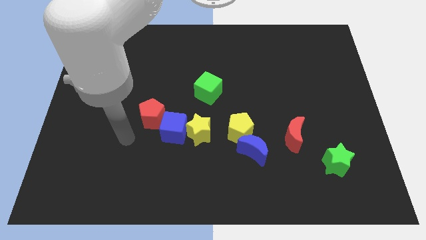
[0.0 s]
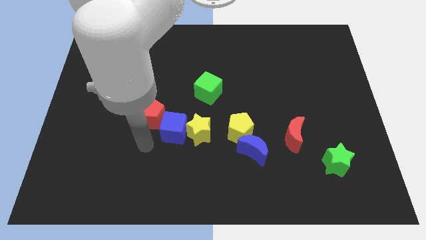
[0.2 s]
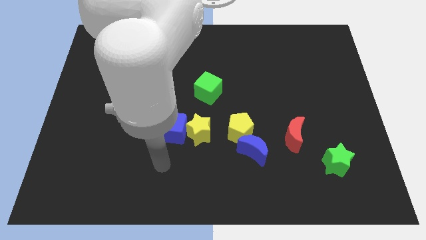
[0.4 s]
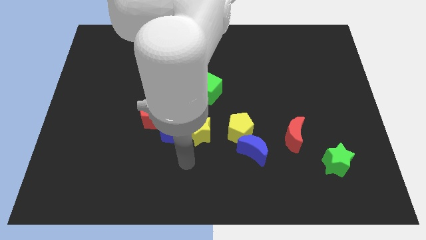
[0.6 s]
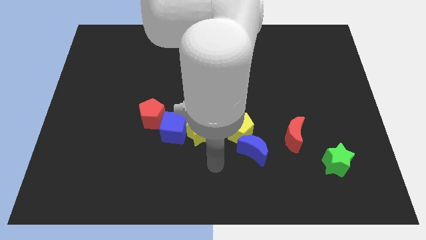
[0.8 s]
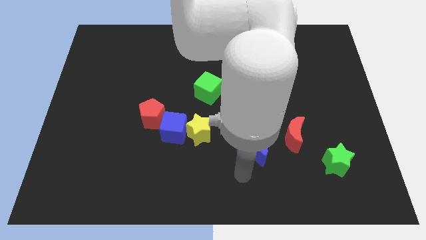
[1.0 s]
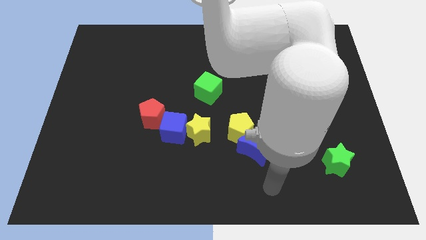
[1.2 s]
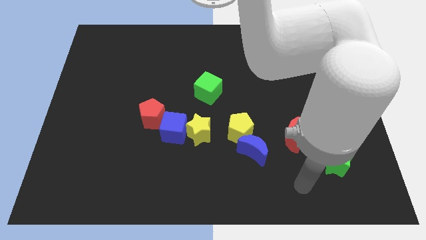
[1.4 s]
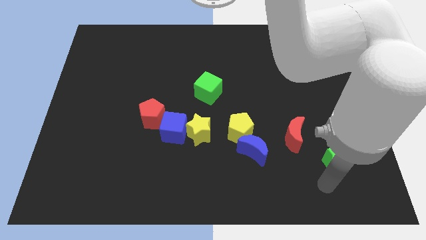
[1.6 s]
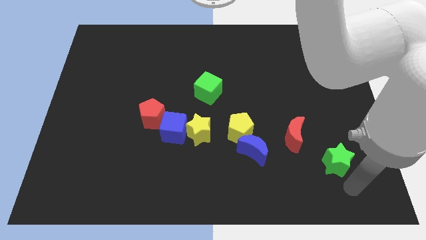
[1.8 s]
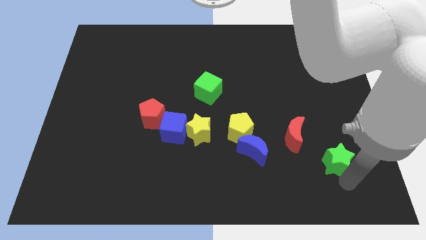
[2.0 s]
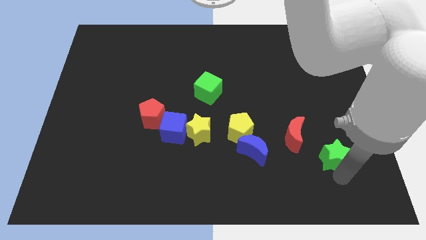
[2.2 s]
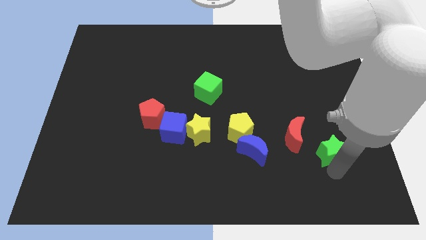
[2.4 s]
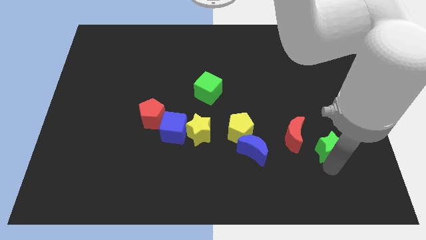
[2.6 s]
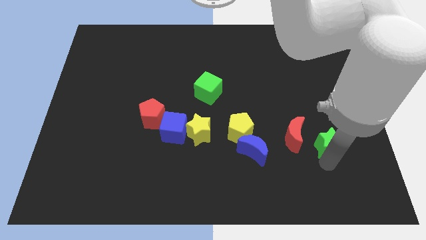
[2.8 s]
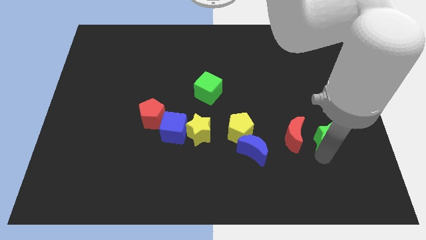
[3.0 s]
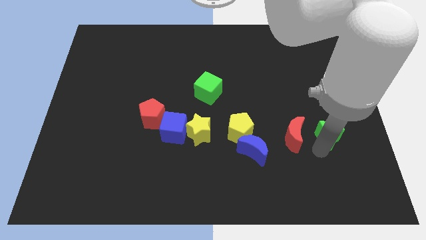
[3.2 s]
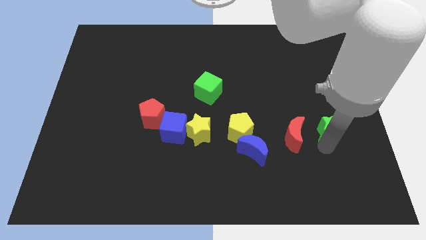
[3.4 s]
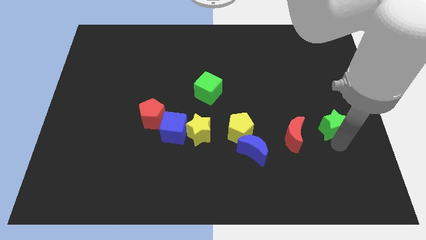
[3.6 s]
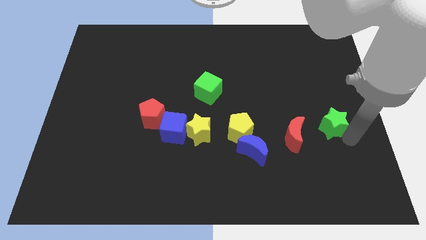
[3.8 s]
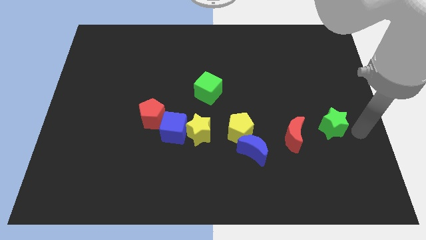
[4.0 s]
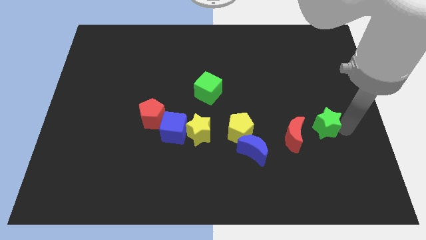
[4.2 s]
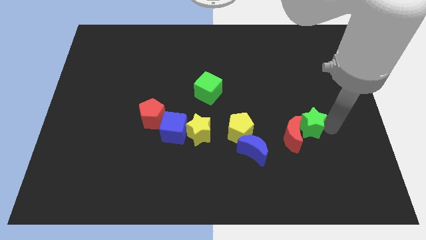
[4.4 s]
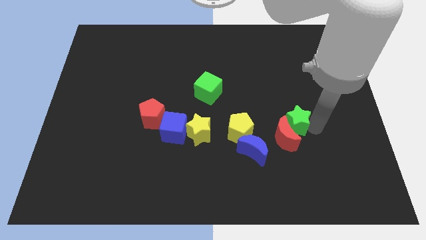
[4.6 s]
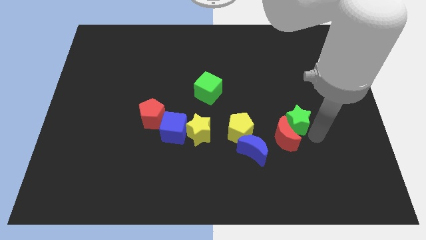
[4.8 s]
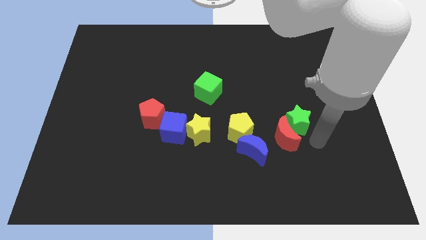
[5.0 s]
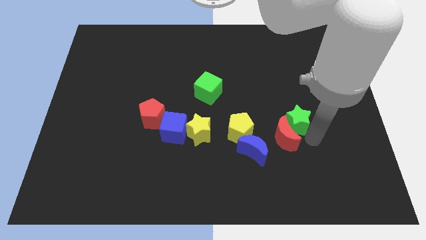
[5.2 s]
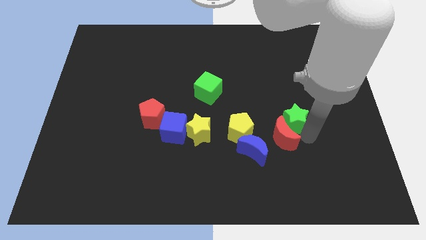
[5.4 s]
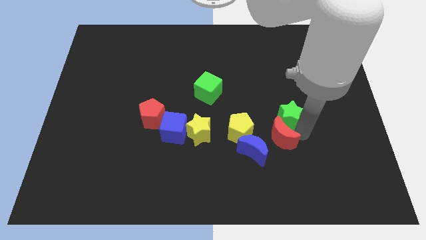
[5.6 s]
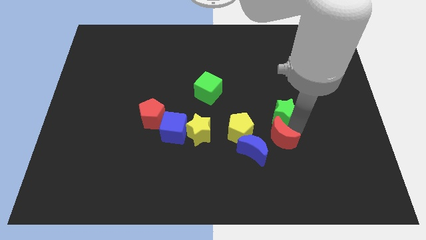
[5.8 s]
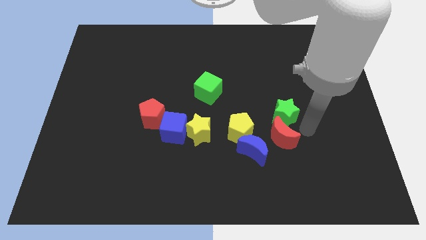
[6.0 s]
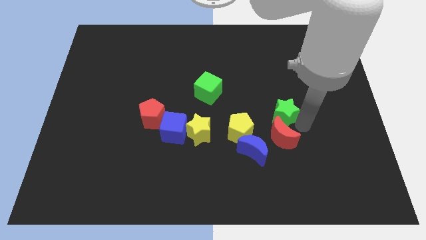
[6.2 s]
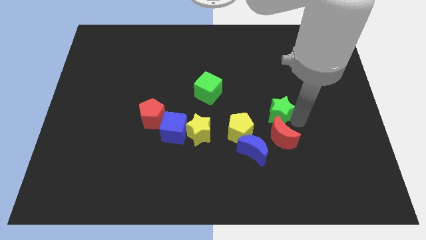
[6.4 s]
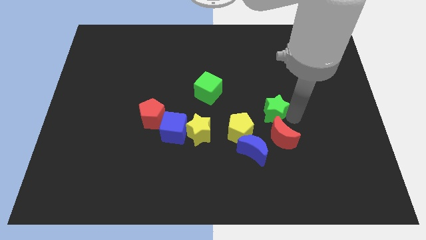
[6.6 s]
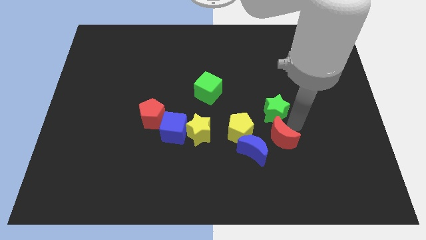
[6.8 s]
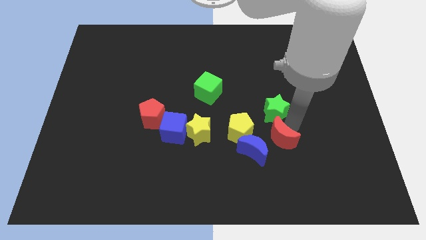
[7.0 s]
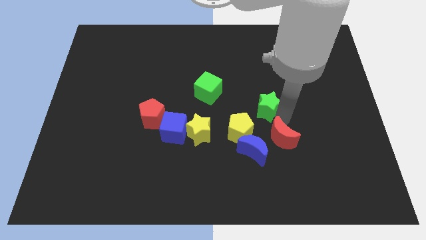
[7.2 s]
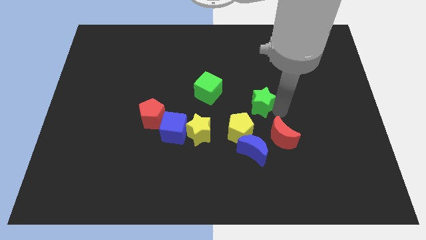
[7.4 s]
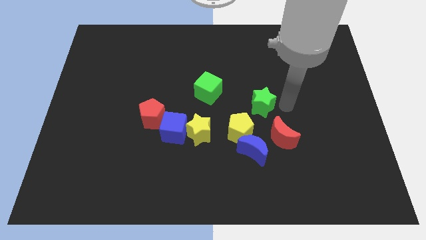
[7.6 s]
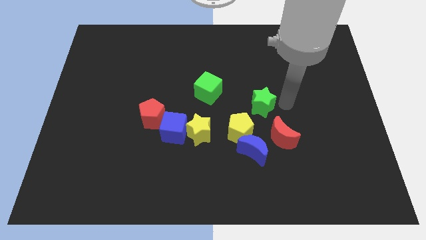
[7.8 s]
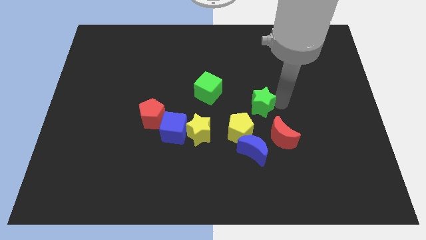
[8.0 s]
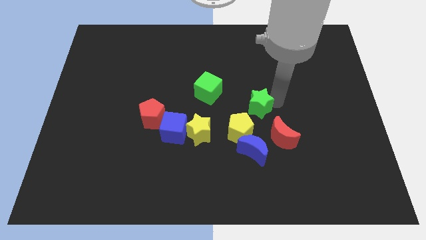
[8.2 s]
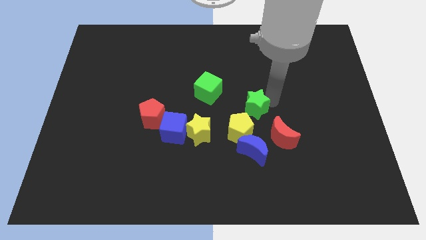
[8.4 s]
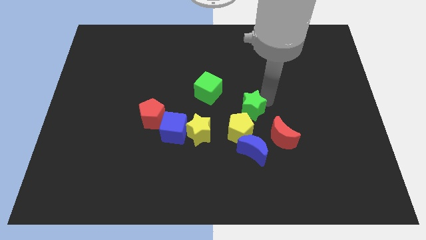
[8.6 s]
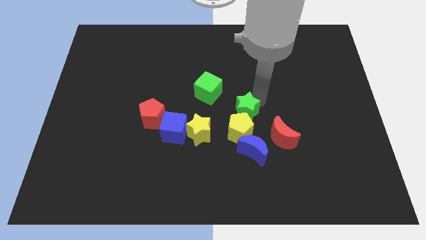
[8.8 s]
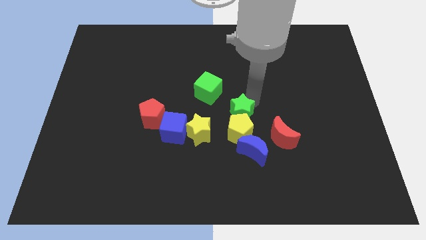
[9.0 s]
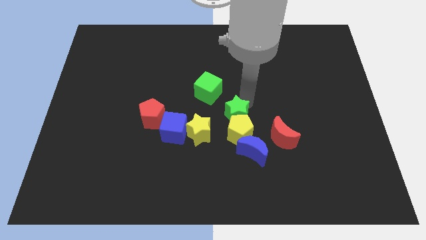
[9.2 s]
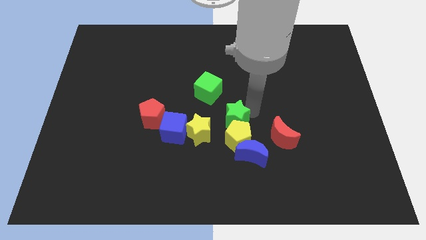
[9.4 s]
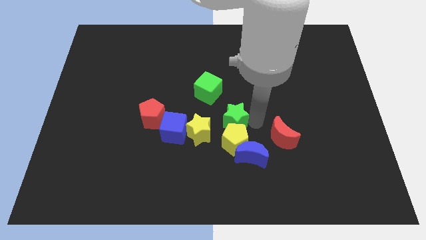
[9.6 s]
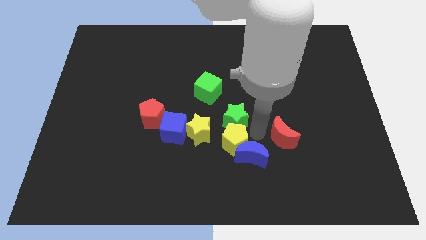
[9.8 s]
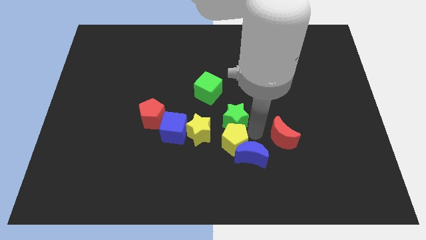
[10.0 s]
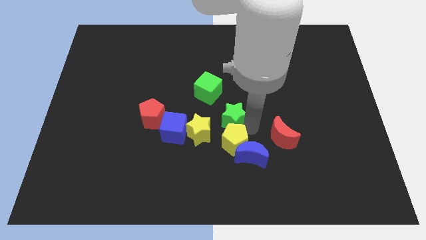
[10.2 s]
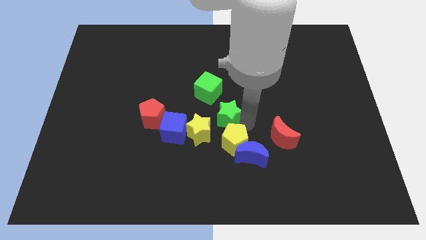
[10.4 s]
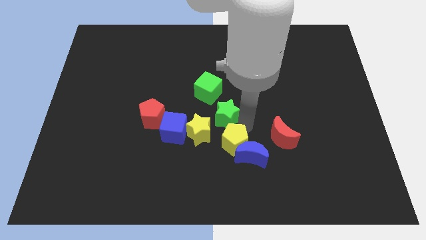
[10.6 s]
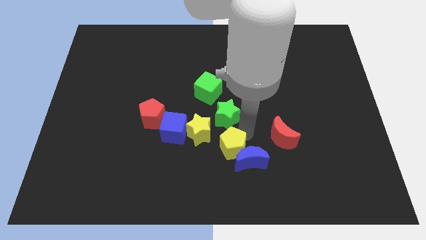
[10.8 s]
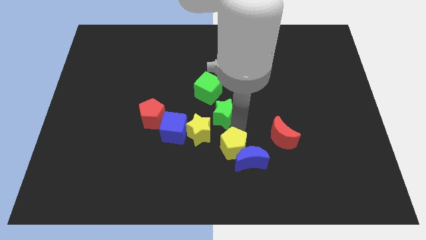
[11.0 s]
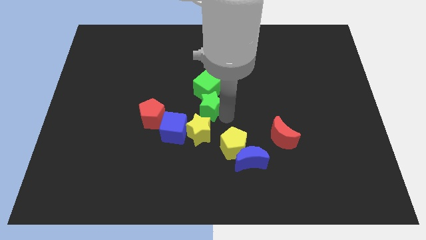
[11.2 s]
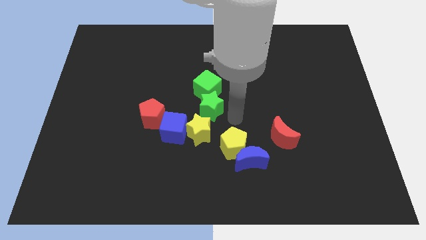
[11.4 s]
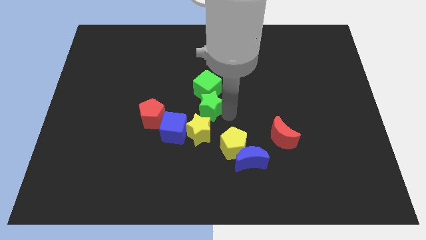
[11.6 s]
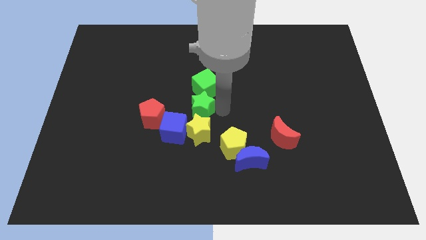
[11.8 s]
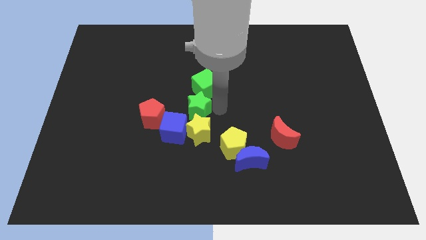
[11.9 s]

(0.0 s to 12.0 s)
put the green star above the blue cube

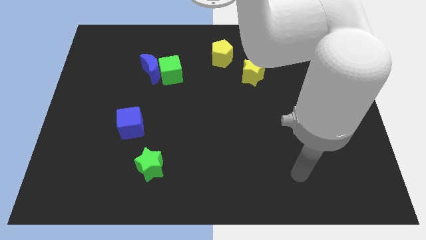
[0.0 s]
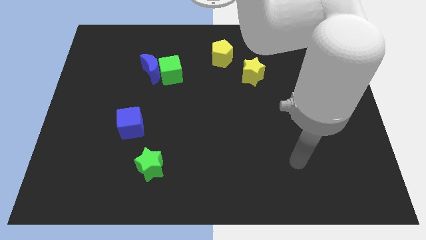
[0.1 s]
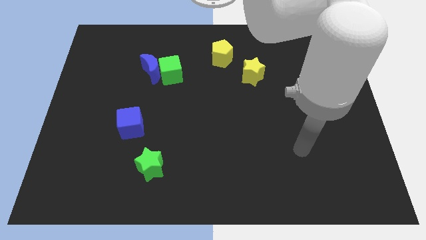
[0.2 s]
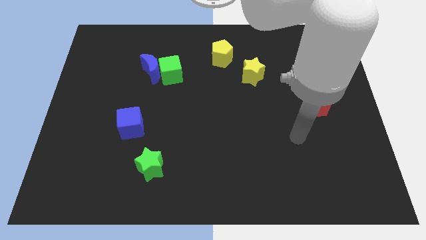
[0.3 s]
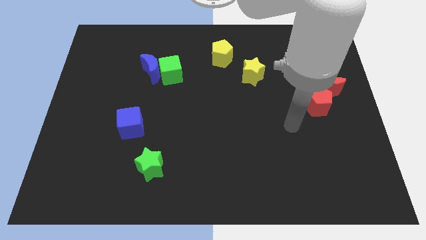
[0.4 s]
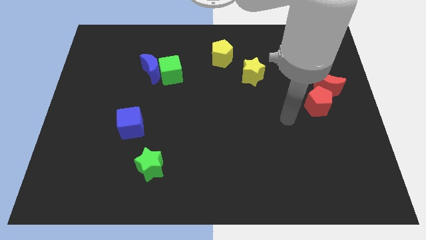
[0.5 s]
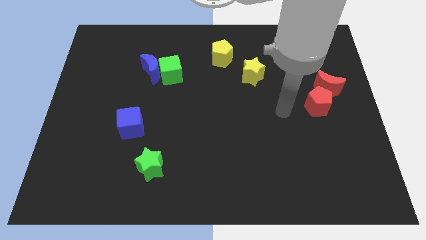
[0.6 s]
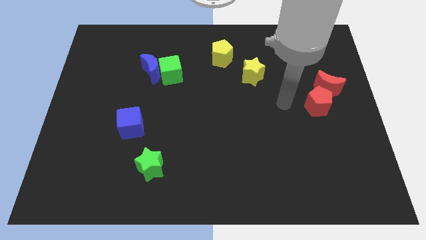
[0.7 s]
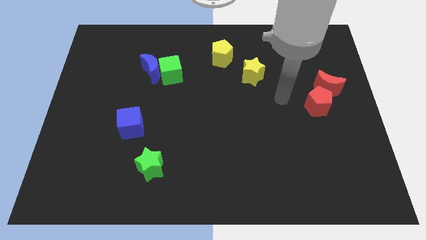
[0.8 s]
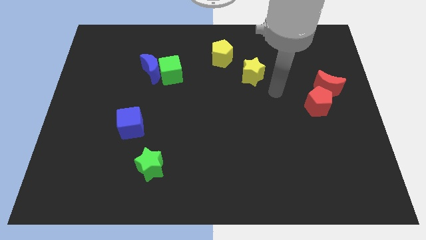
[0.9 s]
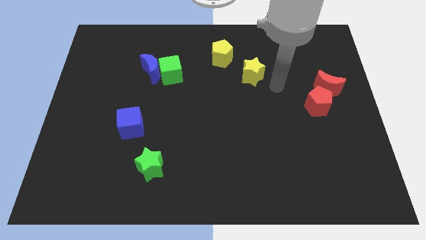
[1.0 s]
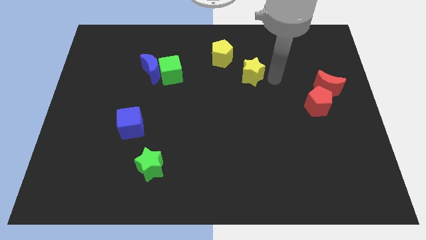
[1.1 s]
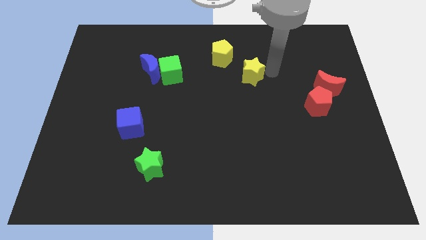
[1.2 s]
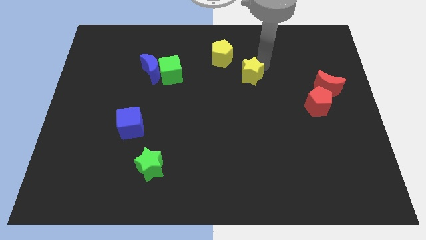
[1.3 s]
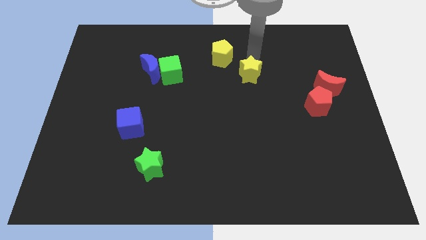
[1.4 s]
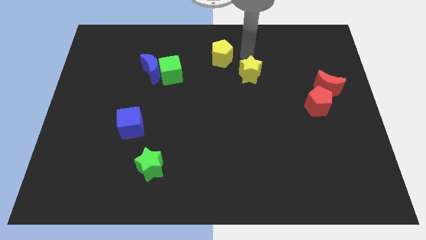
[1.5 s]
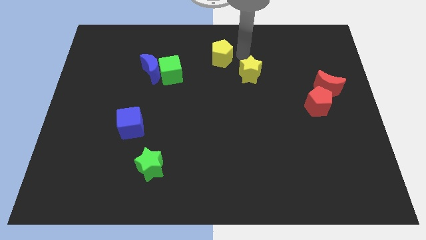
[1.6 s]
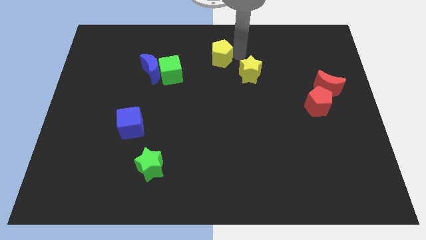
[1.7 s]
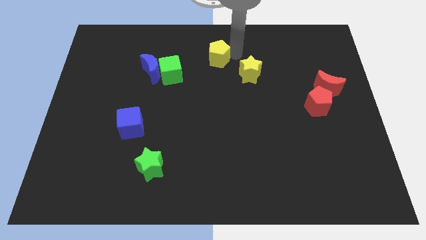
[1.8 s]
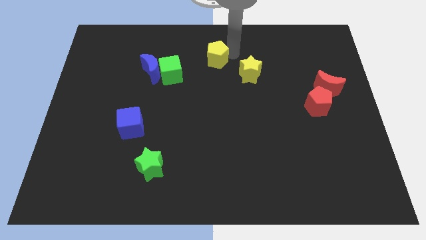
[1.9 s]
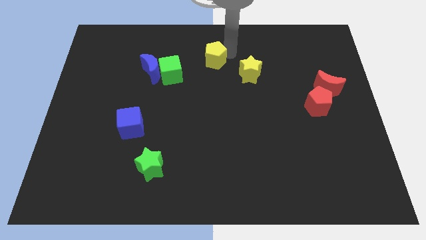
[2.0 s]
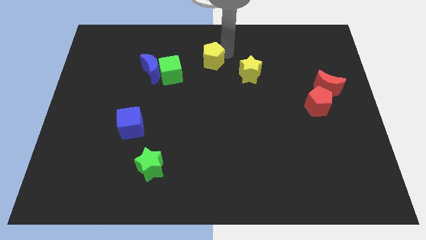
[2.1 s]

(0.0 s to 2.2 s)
push the yellow pentagon to the top right of the green cube
